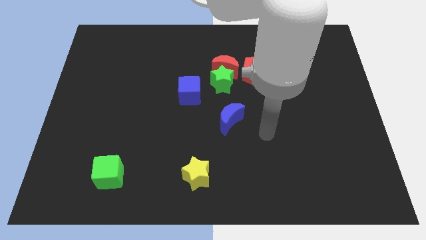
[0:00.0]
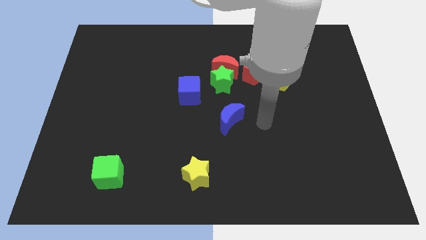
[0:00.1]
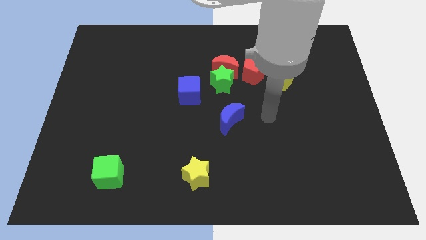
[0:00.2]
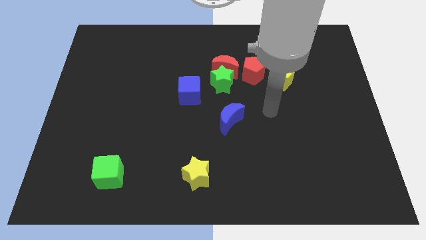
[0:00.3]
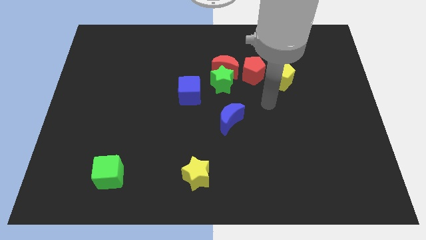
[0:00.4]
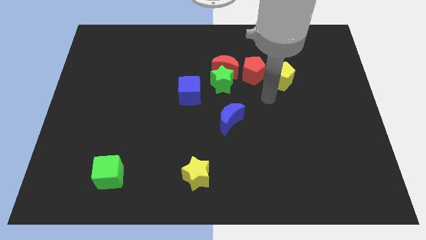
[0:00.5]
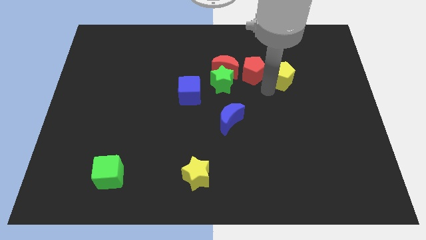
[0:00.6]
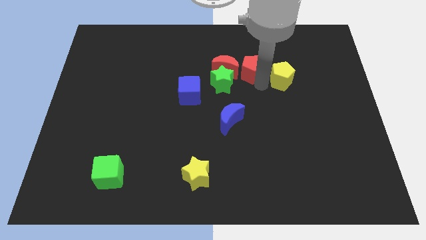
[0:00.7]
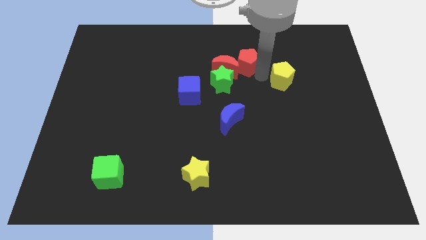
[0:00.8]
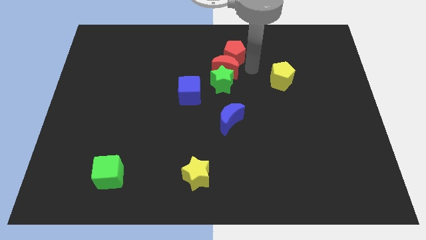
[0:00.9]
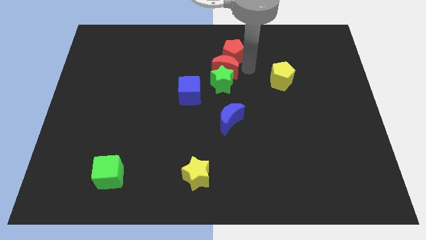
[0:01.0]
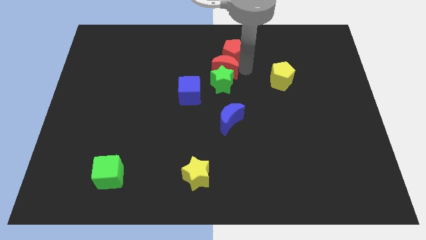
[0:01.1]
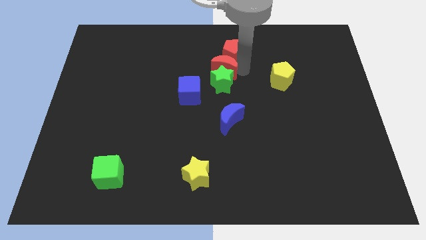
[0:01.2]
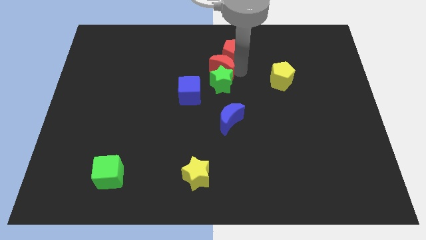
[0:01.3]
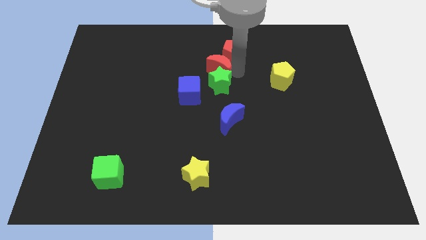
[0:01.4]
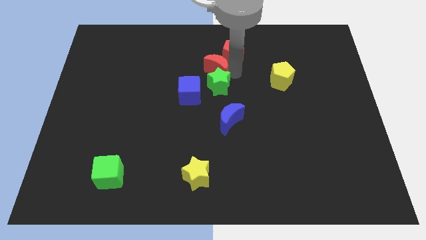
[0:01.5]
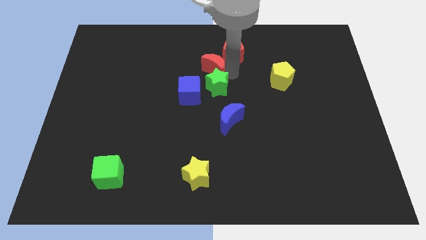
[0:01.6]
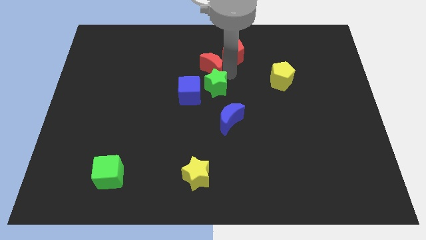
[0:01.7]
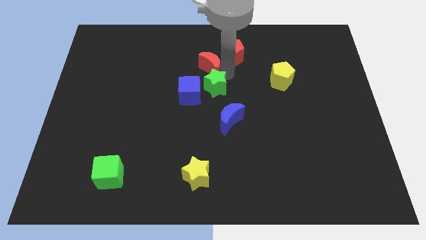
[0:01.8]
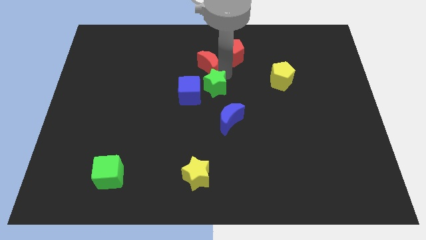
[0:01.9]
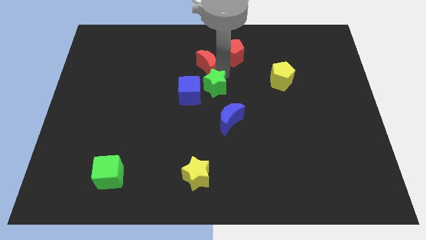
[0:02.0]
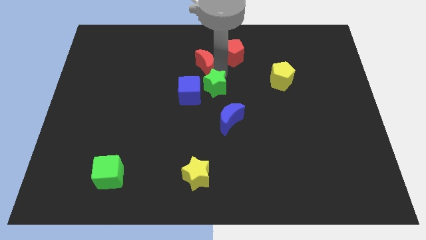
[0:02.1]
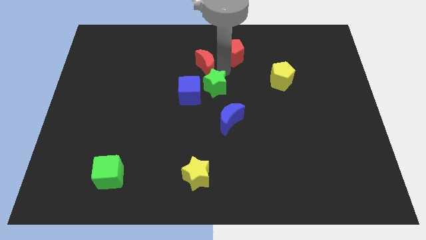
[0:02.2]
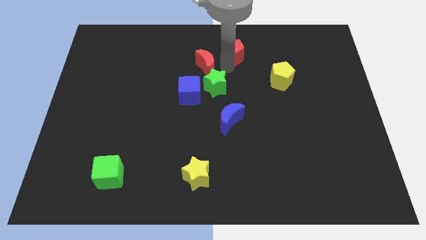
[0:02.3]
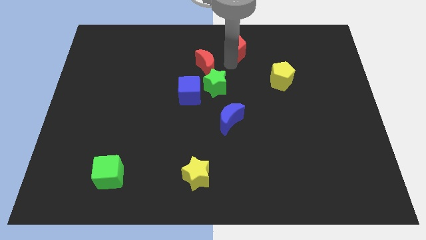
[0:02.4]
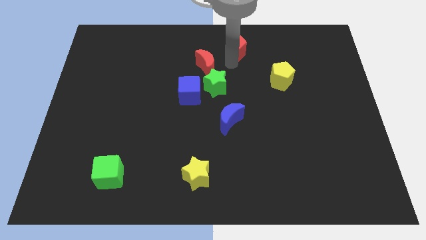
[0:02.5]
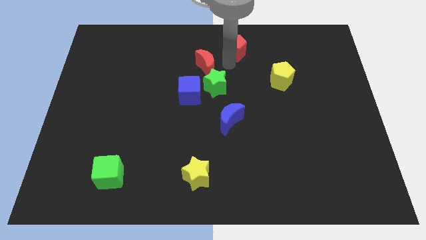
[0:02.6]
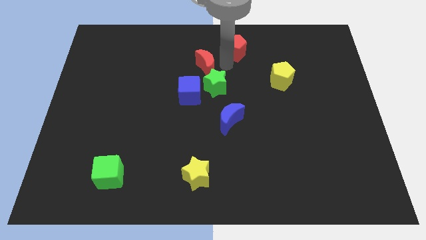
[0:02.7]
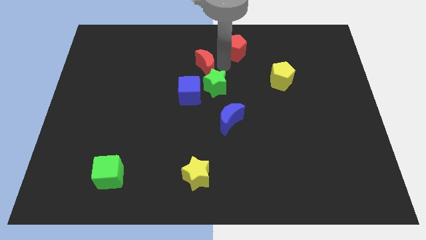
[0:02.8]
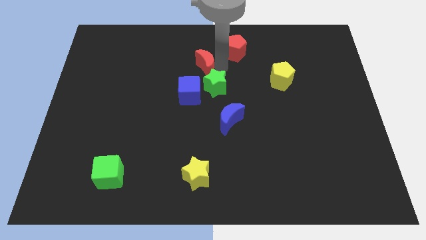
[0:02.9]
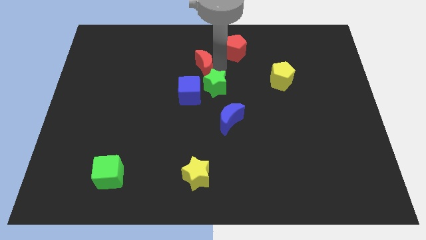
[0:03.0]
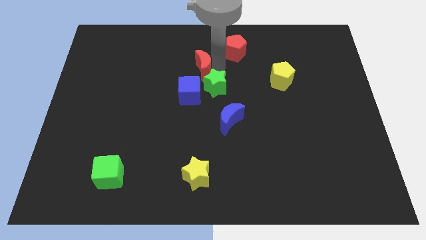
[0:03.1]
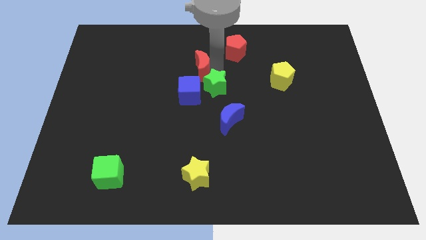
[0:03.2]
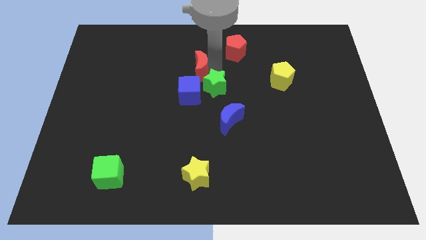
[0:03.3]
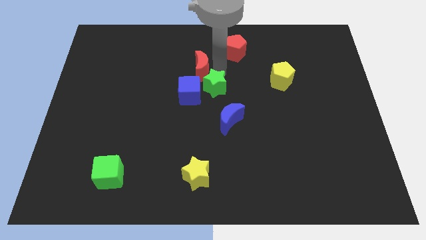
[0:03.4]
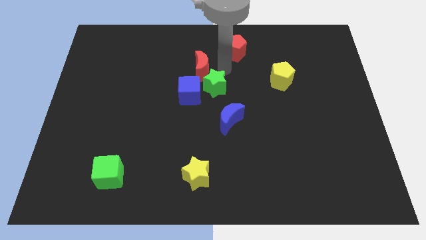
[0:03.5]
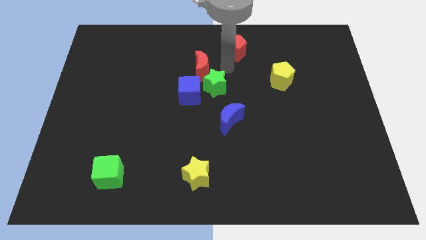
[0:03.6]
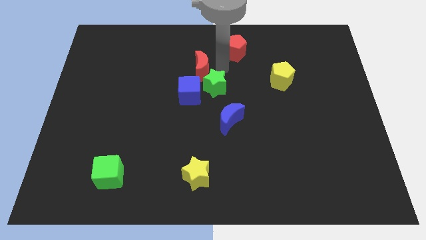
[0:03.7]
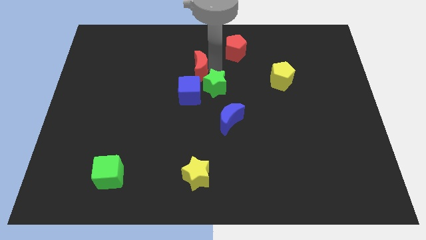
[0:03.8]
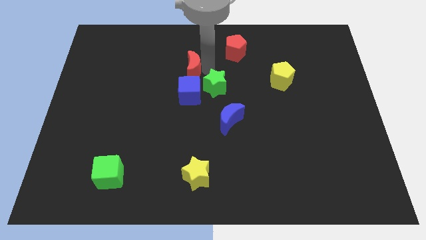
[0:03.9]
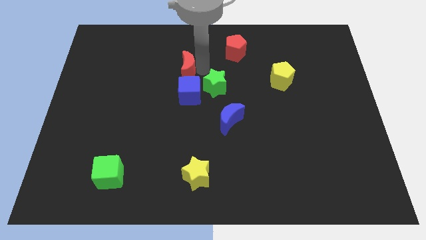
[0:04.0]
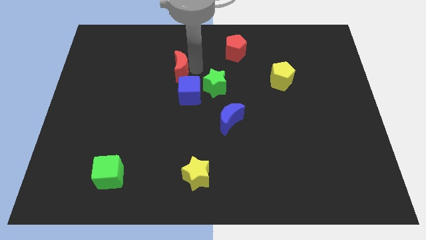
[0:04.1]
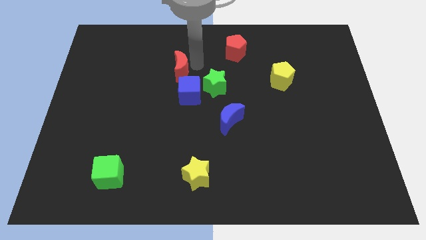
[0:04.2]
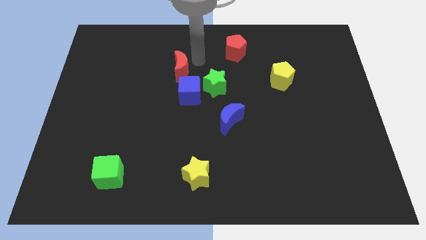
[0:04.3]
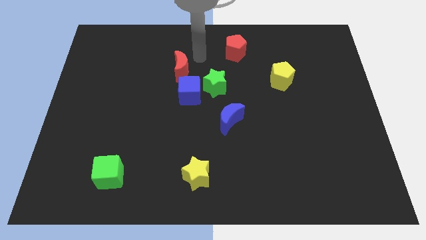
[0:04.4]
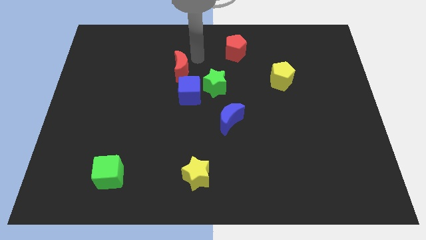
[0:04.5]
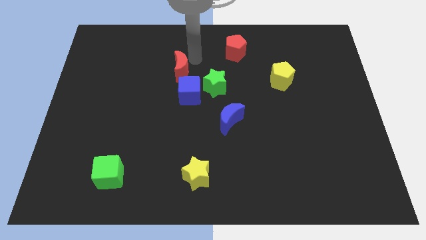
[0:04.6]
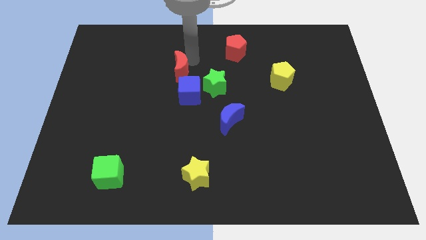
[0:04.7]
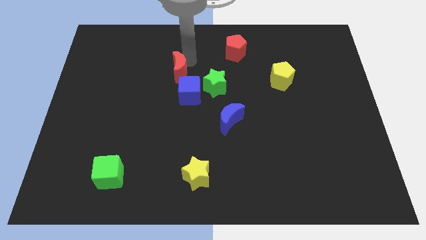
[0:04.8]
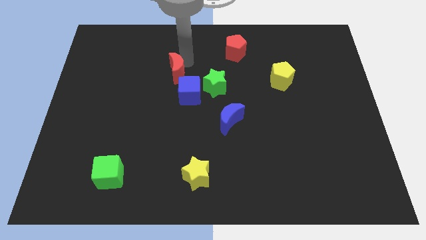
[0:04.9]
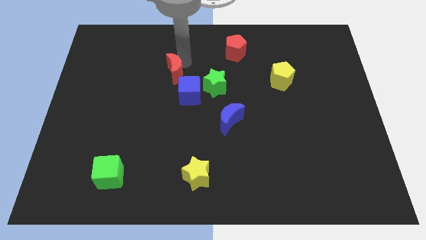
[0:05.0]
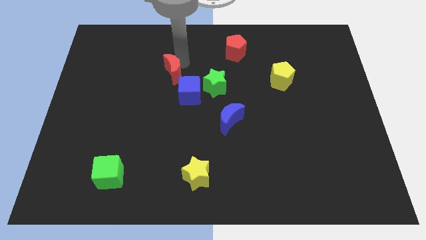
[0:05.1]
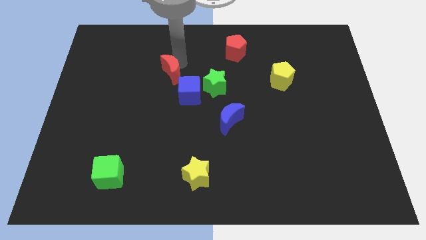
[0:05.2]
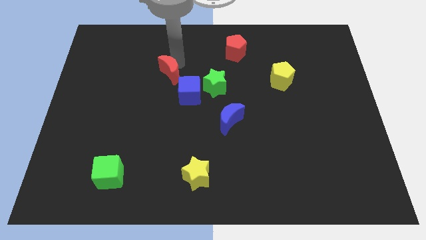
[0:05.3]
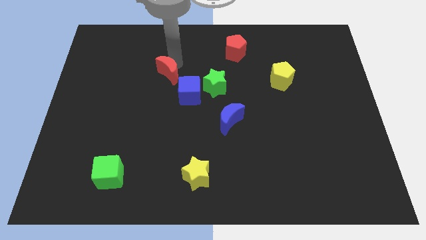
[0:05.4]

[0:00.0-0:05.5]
move the red moon diagonally down and to the left somewhat

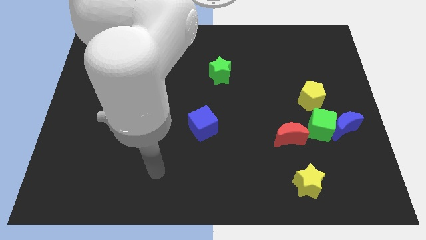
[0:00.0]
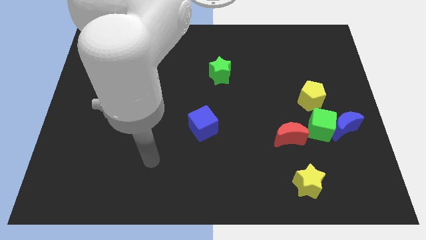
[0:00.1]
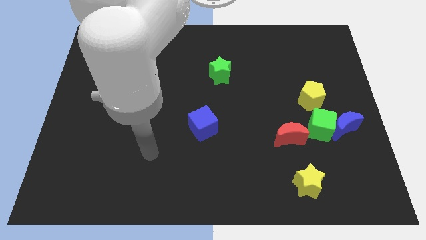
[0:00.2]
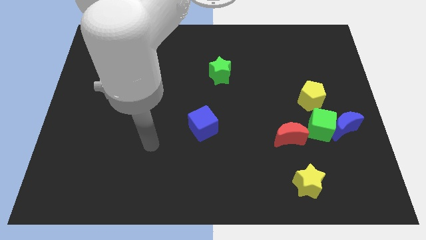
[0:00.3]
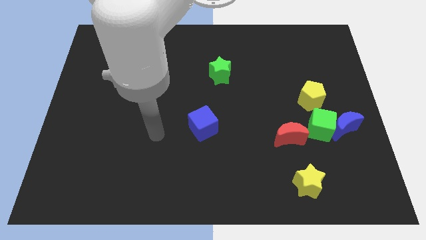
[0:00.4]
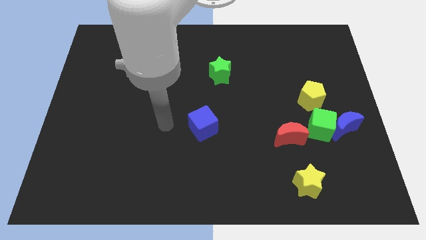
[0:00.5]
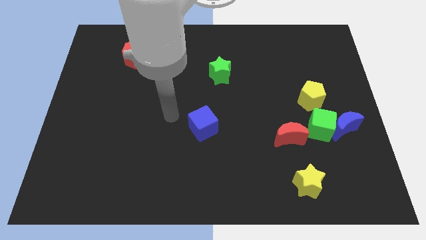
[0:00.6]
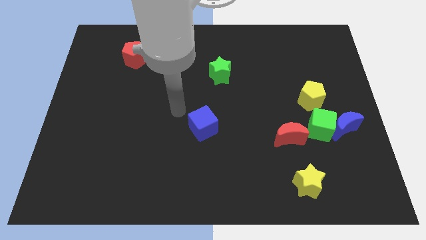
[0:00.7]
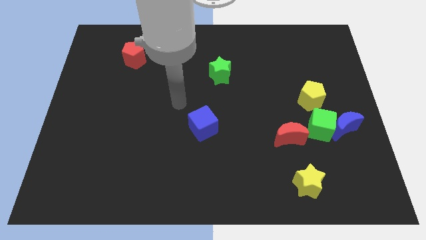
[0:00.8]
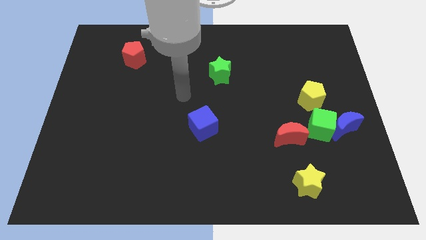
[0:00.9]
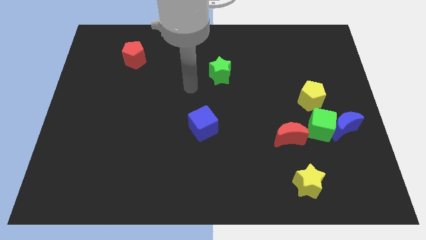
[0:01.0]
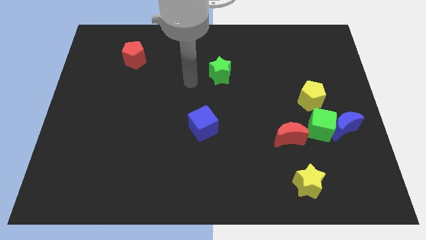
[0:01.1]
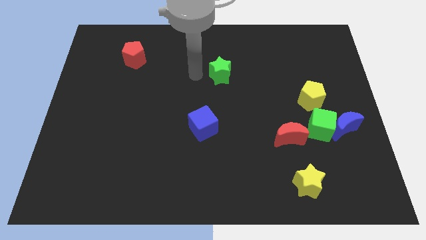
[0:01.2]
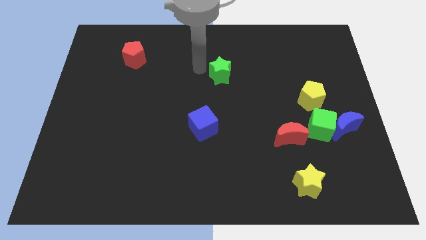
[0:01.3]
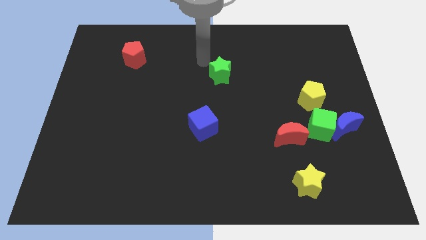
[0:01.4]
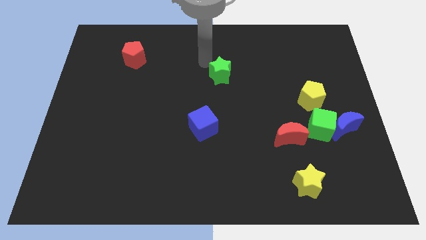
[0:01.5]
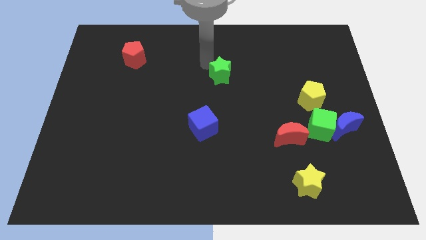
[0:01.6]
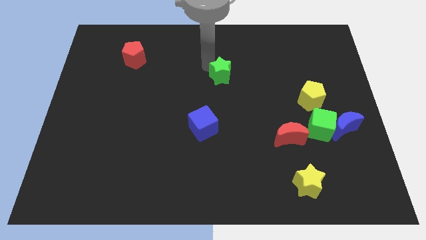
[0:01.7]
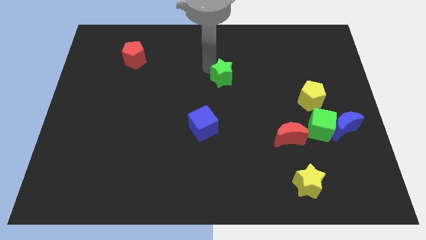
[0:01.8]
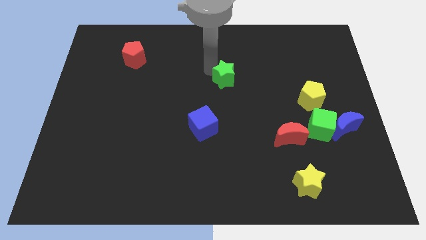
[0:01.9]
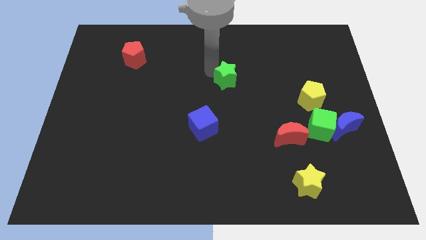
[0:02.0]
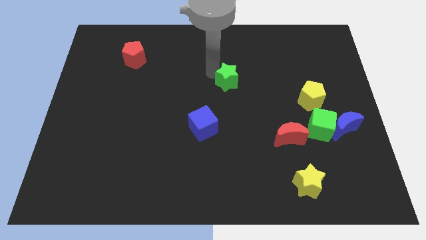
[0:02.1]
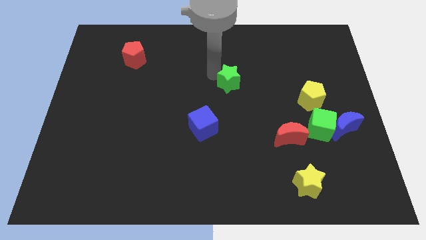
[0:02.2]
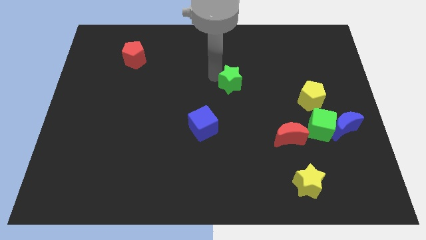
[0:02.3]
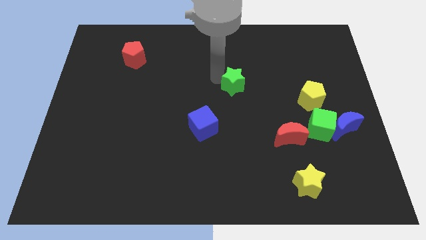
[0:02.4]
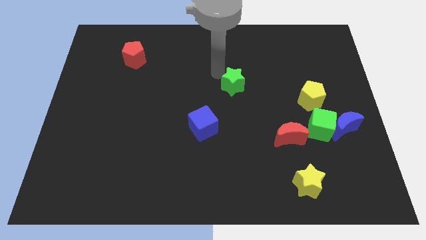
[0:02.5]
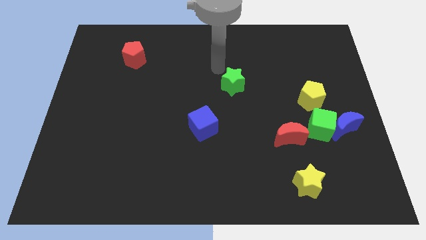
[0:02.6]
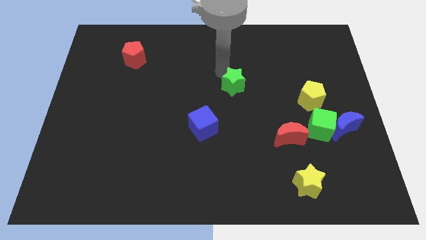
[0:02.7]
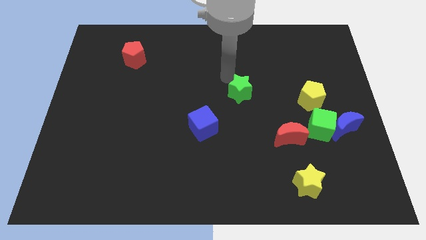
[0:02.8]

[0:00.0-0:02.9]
slightly move the green star down and then right
